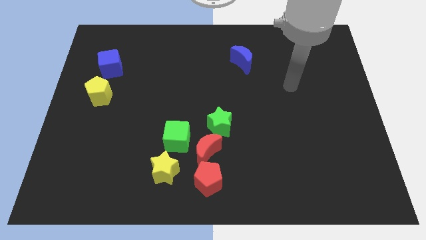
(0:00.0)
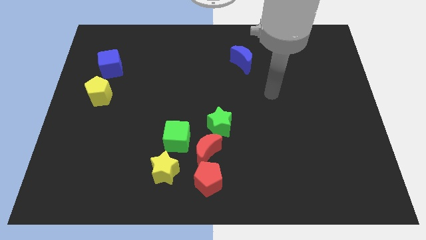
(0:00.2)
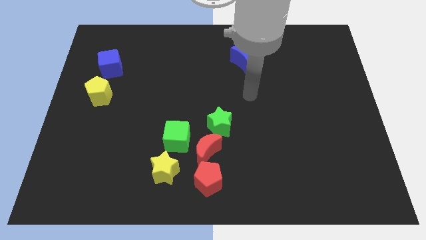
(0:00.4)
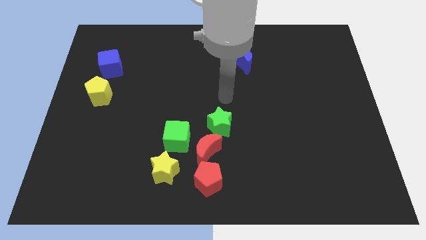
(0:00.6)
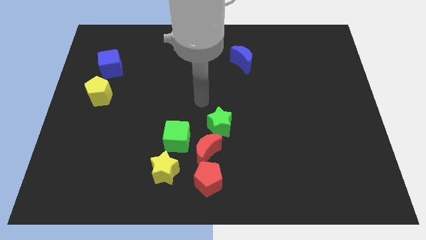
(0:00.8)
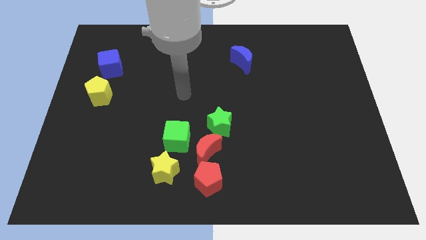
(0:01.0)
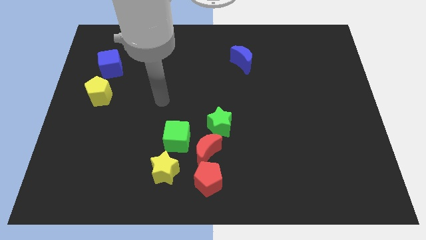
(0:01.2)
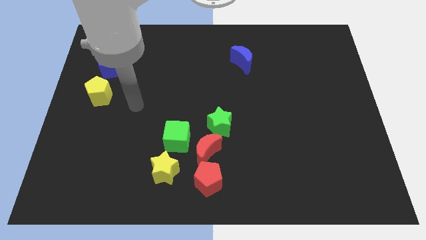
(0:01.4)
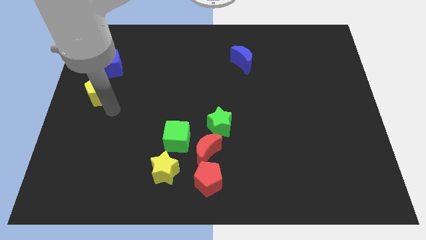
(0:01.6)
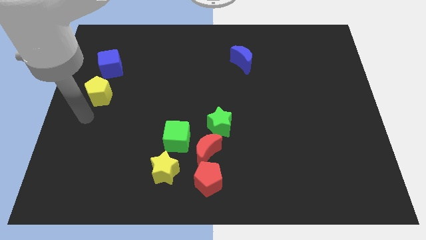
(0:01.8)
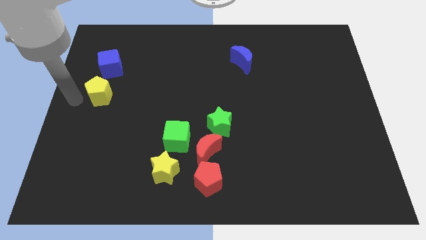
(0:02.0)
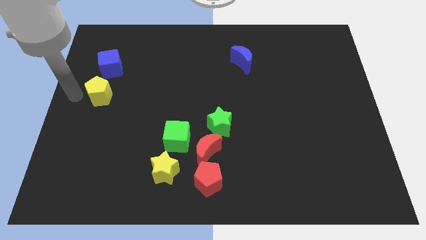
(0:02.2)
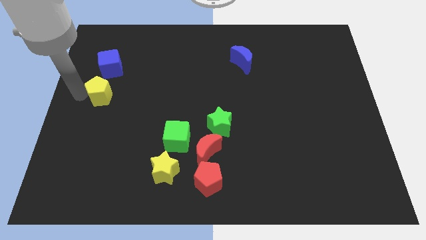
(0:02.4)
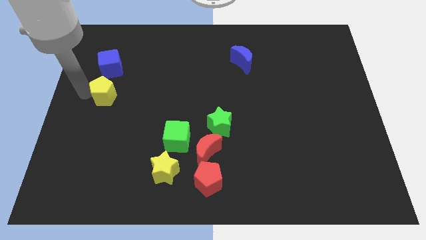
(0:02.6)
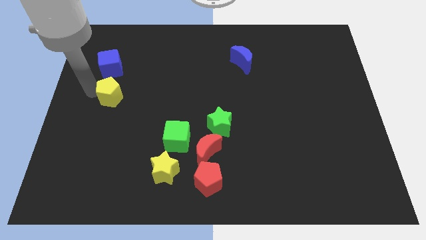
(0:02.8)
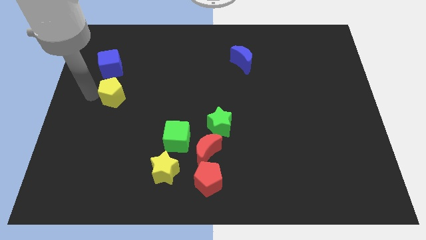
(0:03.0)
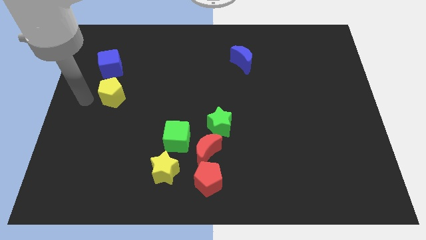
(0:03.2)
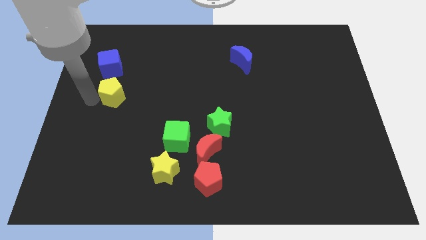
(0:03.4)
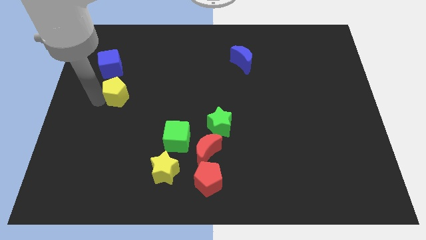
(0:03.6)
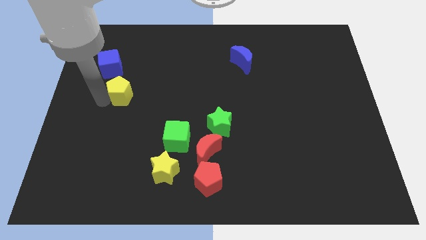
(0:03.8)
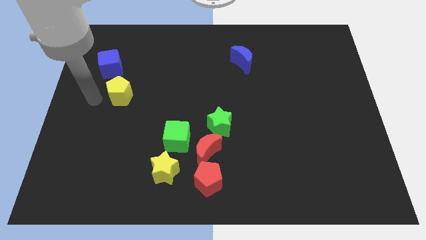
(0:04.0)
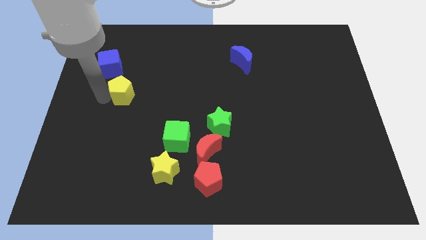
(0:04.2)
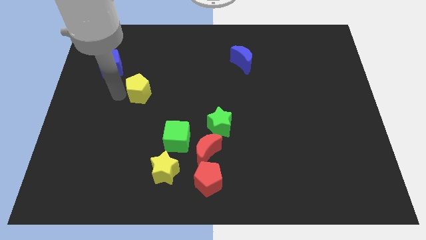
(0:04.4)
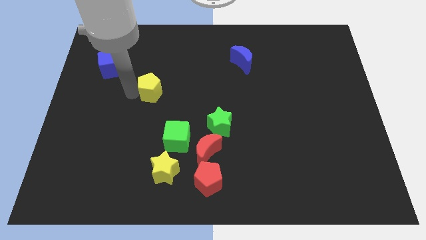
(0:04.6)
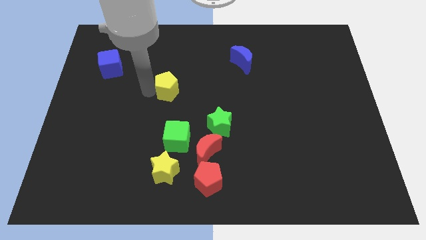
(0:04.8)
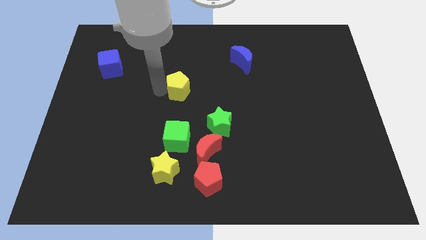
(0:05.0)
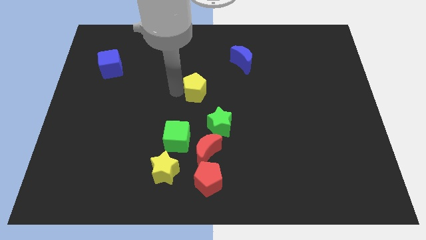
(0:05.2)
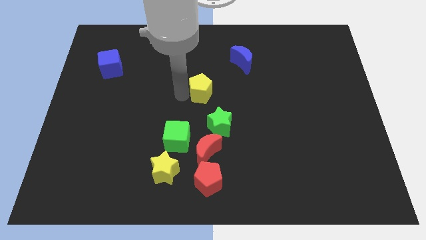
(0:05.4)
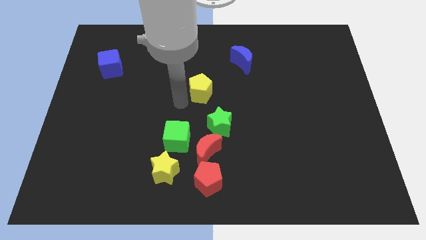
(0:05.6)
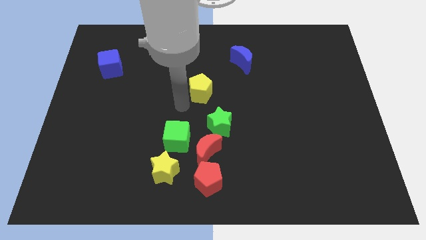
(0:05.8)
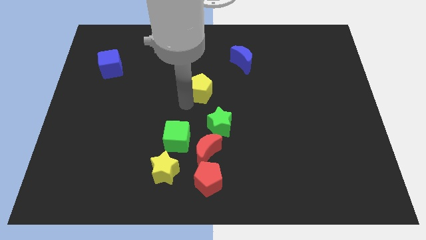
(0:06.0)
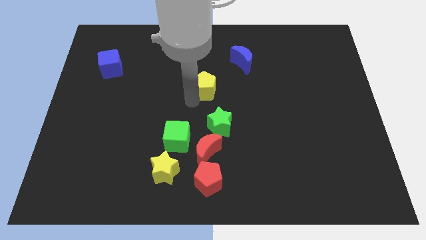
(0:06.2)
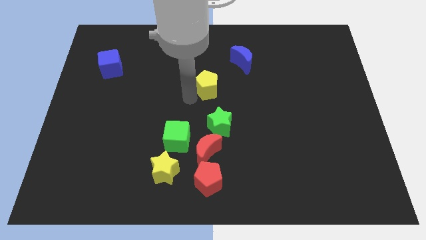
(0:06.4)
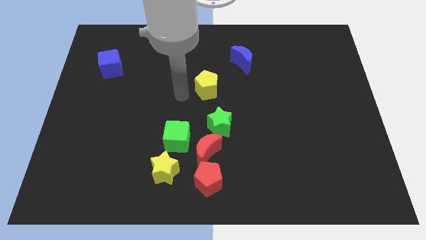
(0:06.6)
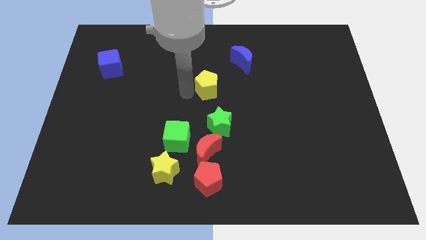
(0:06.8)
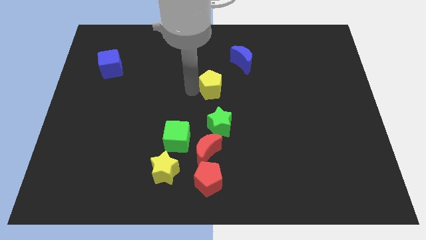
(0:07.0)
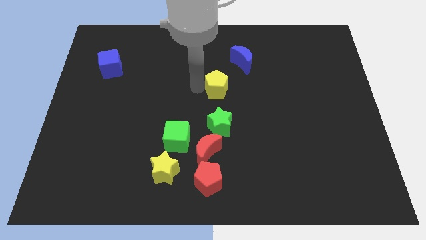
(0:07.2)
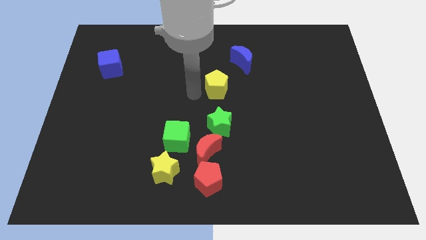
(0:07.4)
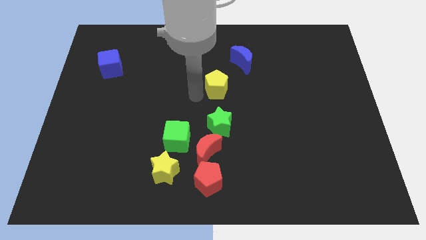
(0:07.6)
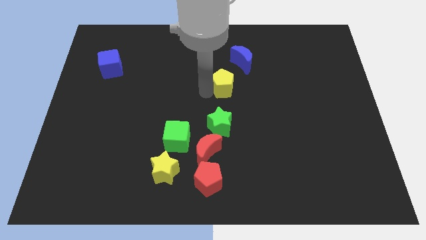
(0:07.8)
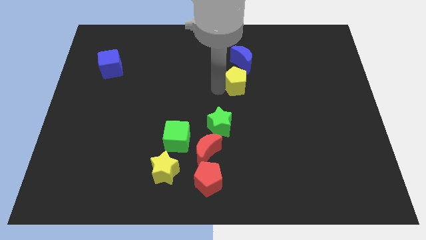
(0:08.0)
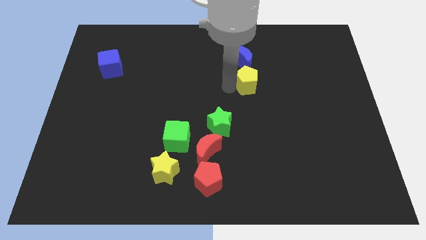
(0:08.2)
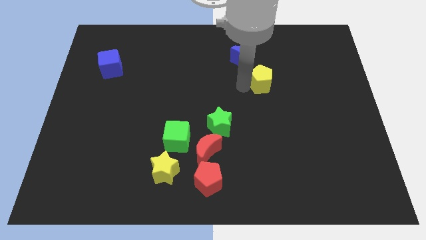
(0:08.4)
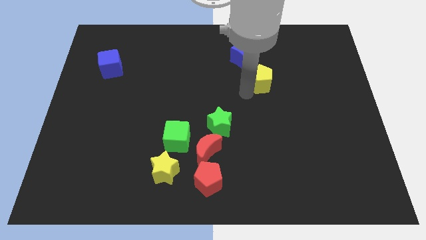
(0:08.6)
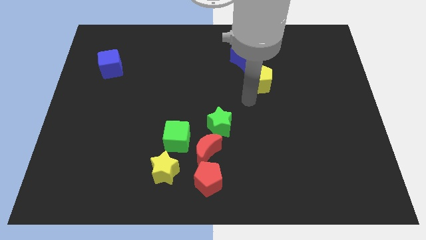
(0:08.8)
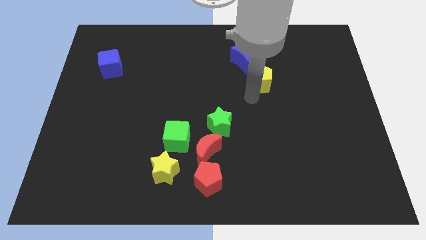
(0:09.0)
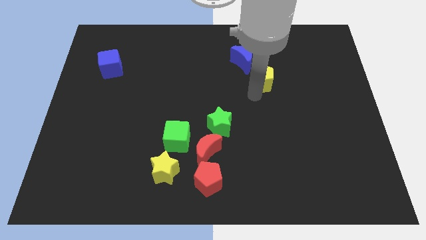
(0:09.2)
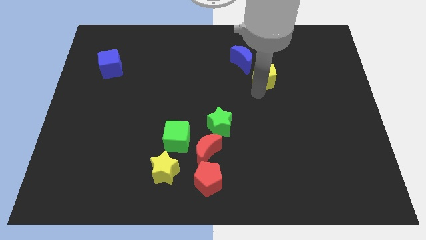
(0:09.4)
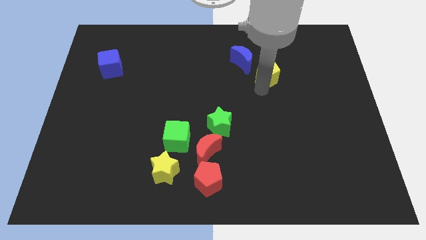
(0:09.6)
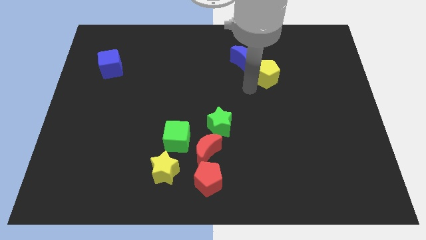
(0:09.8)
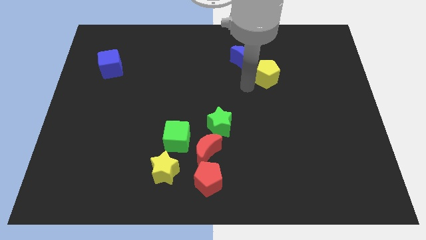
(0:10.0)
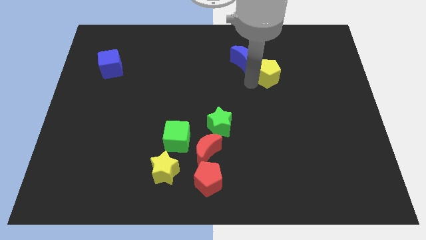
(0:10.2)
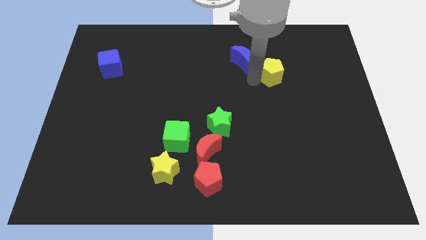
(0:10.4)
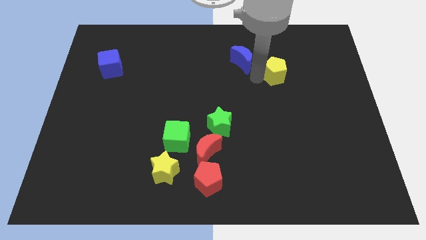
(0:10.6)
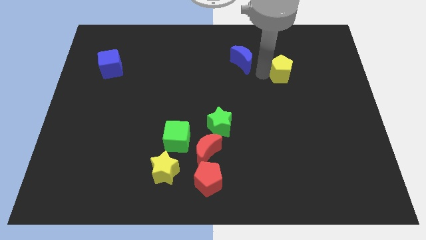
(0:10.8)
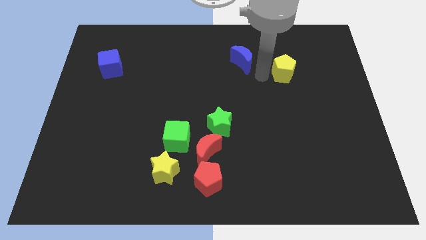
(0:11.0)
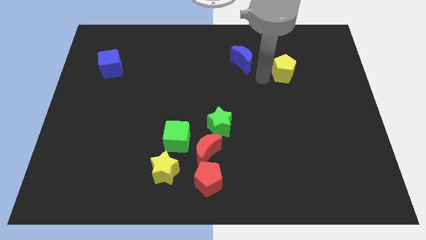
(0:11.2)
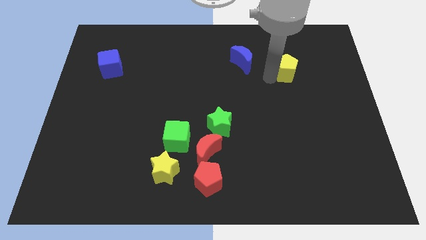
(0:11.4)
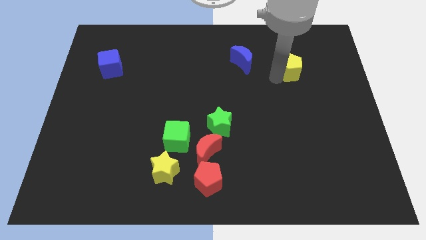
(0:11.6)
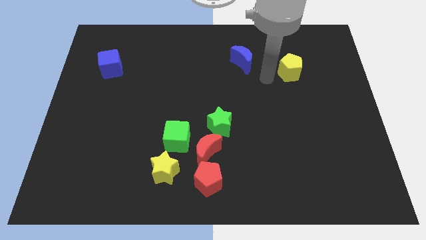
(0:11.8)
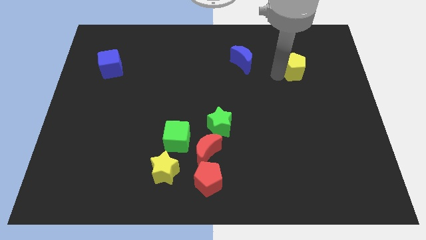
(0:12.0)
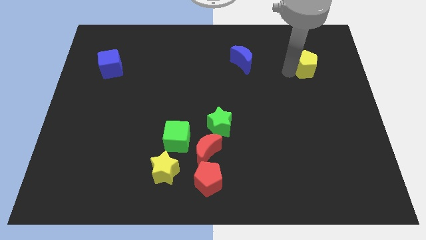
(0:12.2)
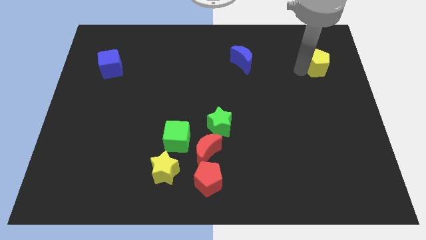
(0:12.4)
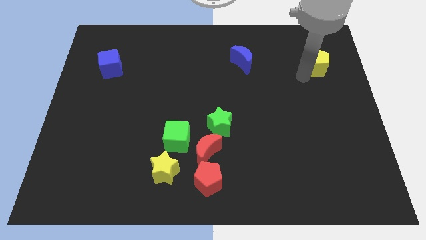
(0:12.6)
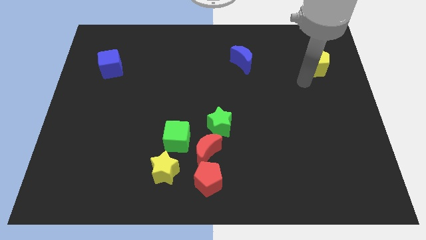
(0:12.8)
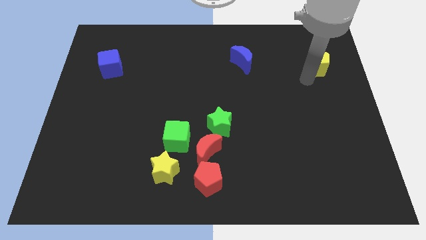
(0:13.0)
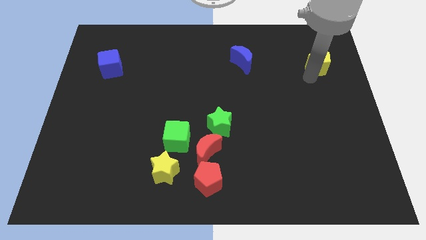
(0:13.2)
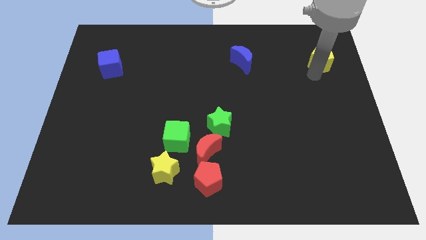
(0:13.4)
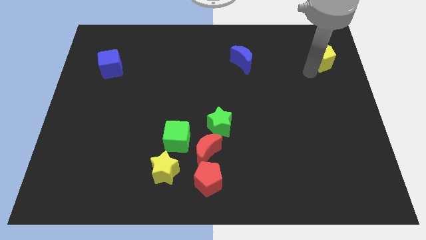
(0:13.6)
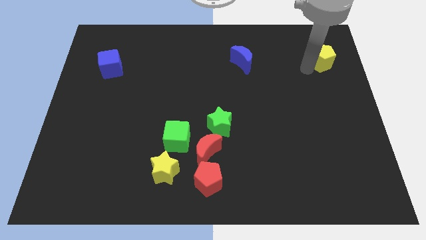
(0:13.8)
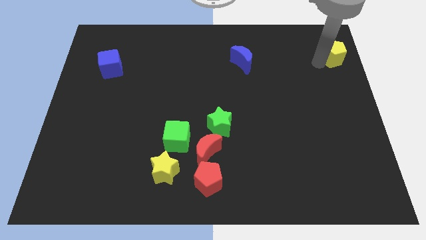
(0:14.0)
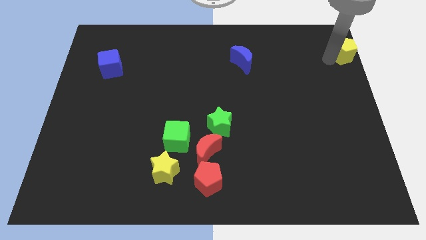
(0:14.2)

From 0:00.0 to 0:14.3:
move the yellow pentagon to the top right of the board
